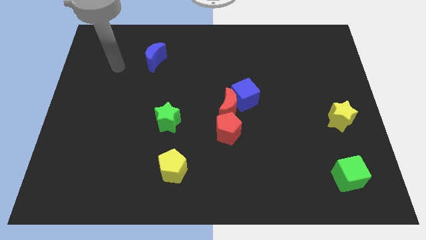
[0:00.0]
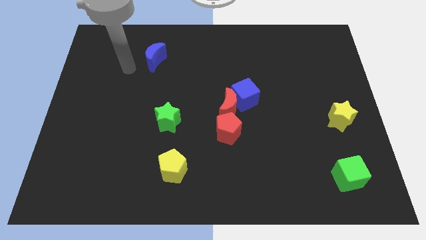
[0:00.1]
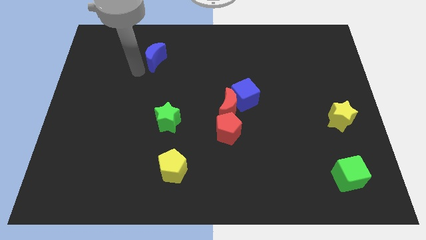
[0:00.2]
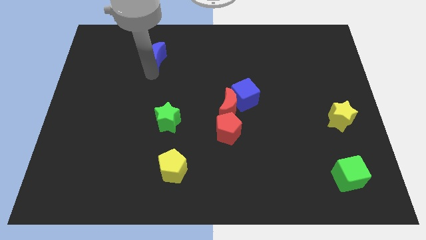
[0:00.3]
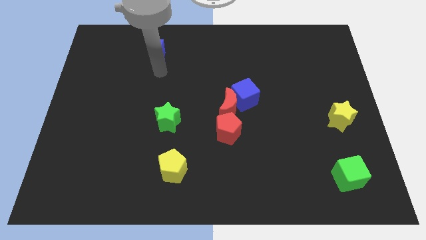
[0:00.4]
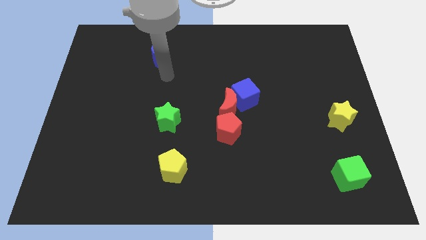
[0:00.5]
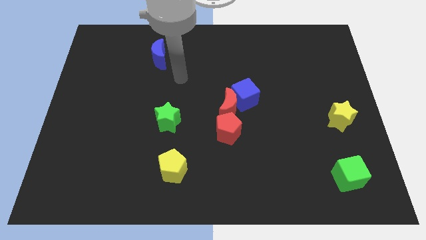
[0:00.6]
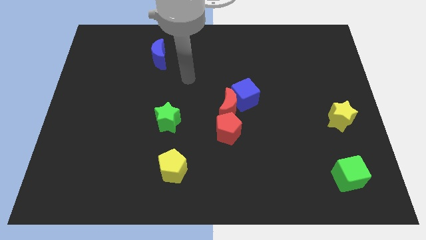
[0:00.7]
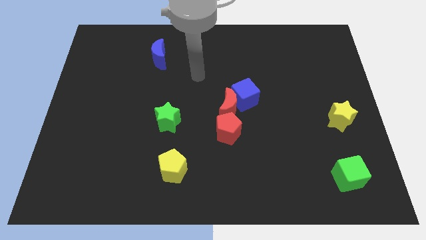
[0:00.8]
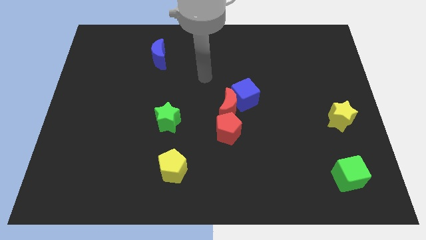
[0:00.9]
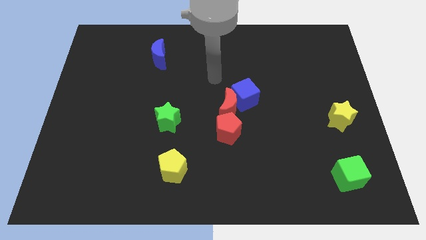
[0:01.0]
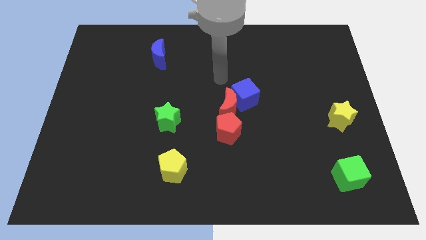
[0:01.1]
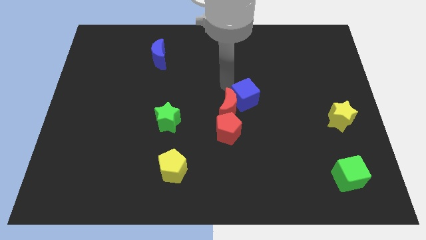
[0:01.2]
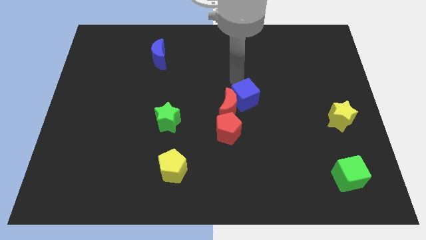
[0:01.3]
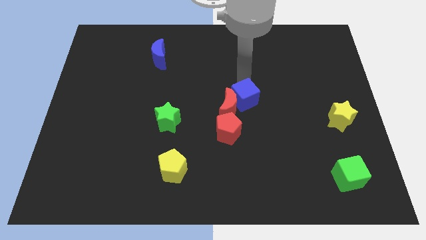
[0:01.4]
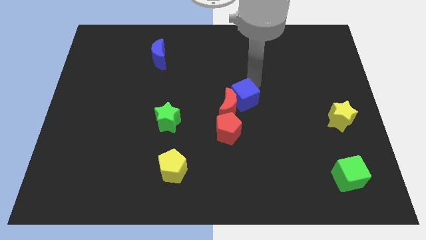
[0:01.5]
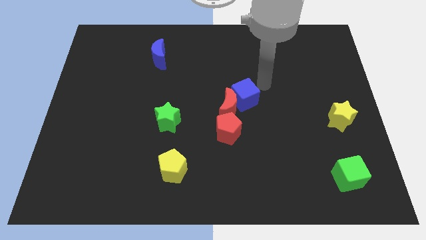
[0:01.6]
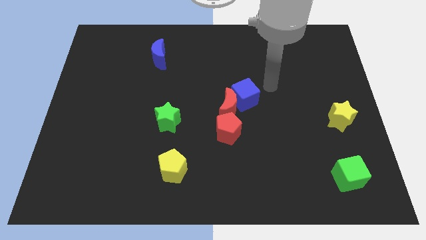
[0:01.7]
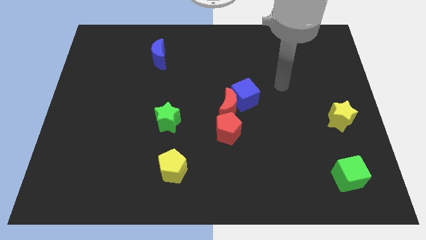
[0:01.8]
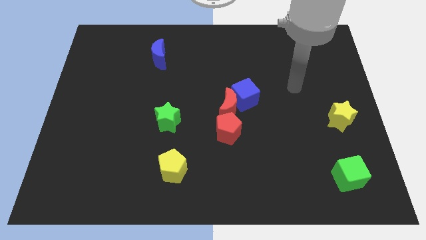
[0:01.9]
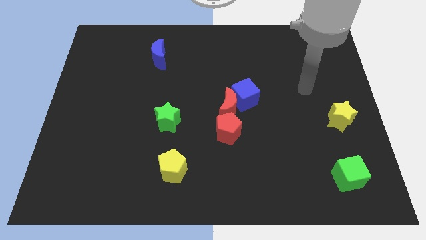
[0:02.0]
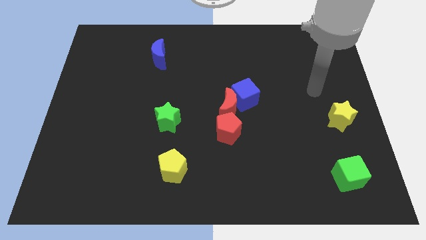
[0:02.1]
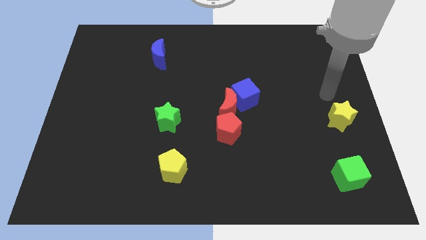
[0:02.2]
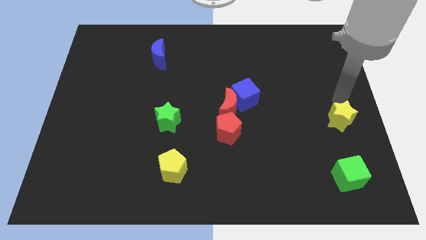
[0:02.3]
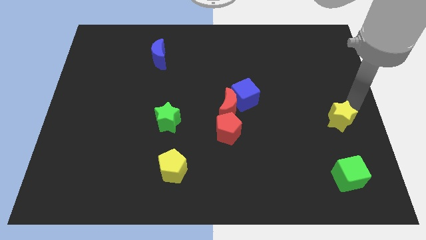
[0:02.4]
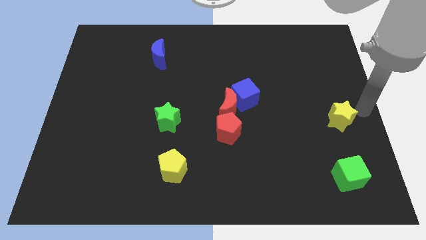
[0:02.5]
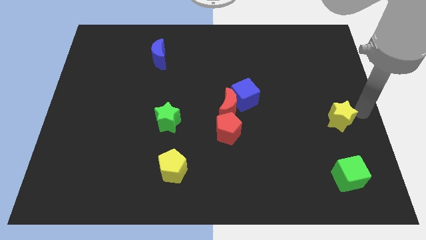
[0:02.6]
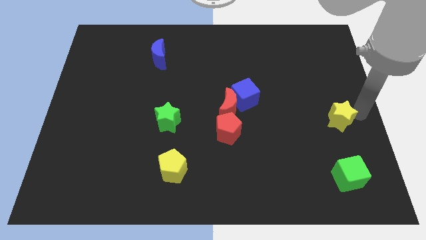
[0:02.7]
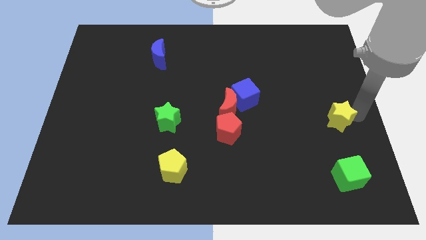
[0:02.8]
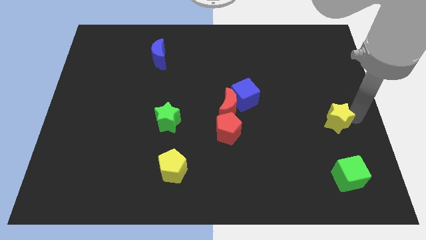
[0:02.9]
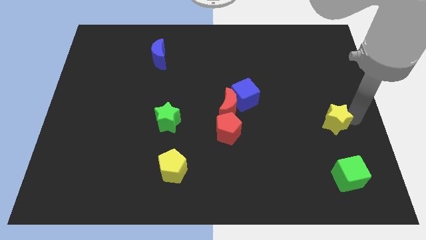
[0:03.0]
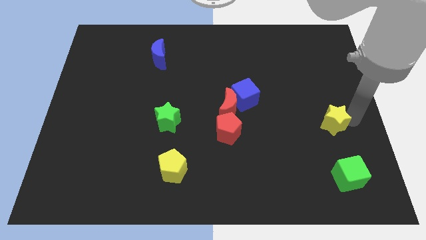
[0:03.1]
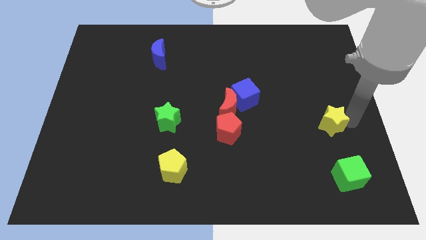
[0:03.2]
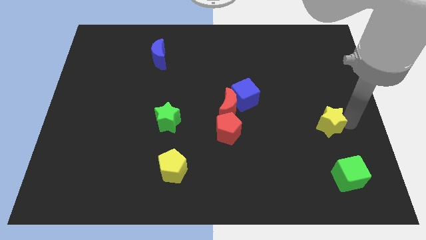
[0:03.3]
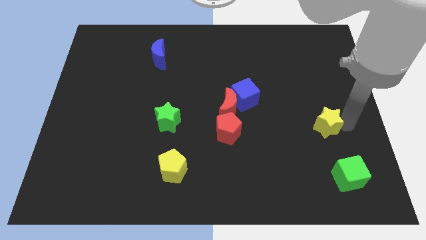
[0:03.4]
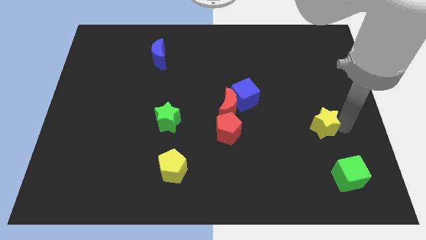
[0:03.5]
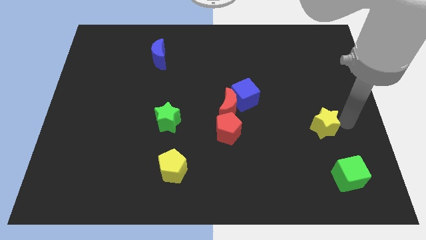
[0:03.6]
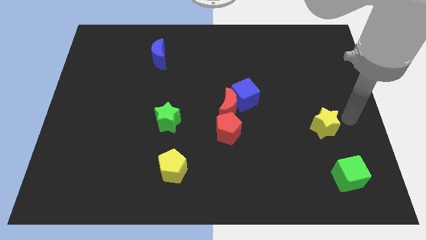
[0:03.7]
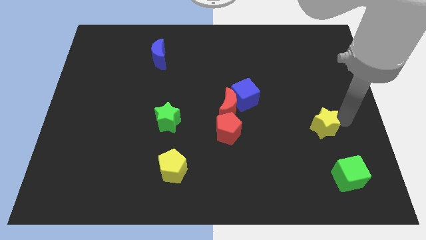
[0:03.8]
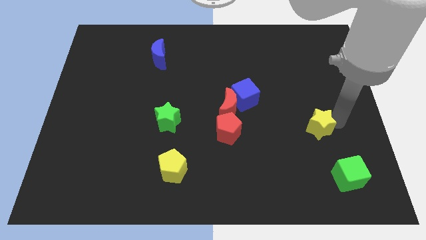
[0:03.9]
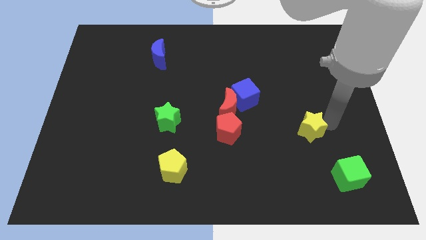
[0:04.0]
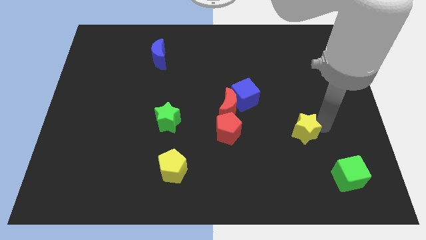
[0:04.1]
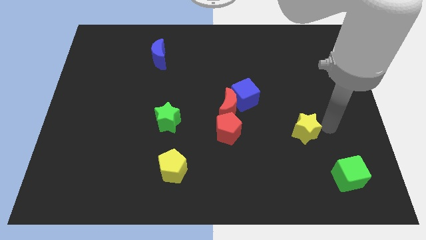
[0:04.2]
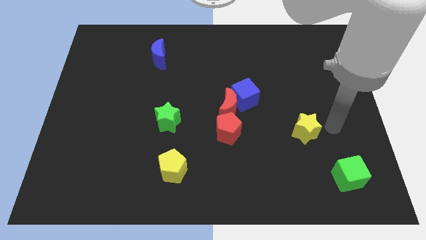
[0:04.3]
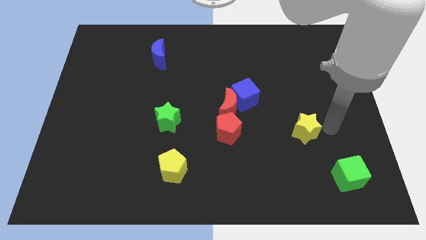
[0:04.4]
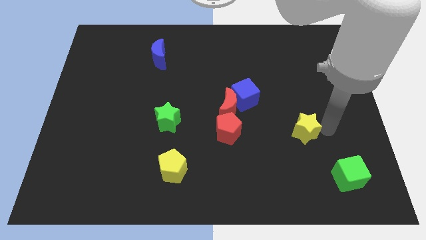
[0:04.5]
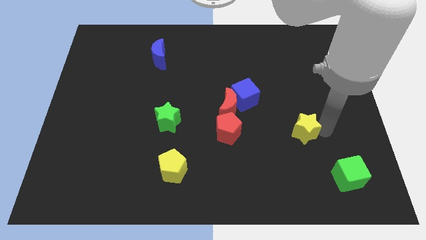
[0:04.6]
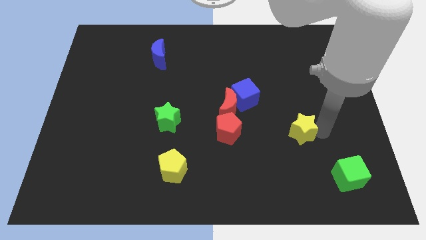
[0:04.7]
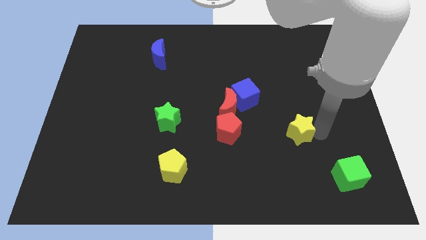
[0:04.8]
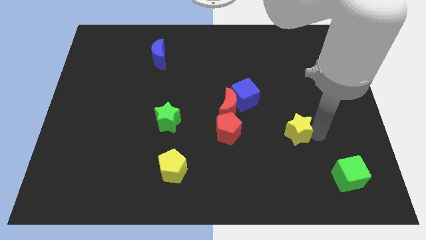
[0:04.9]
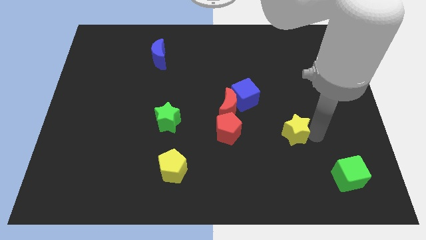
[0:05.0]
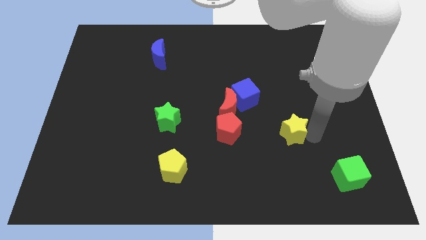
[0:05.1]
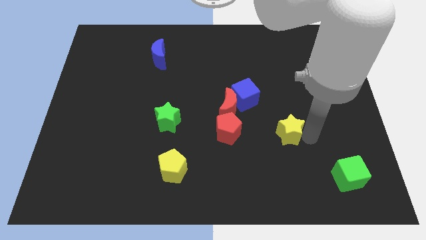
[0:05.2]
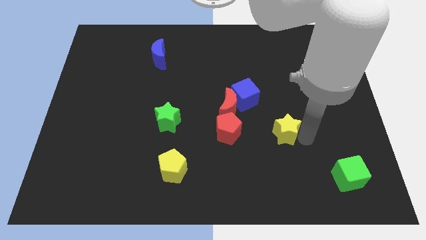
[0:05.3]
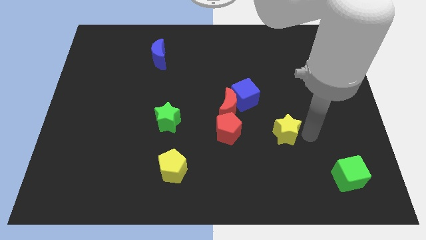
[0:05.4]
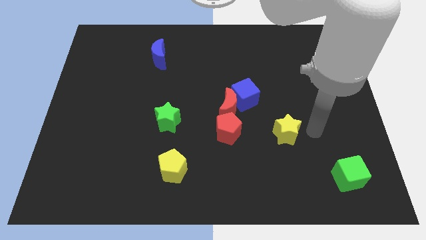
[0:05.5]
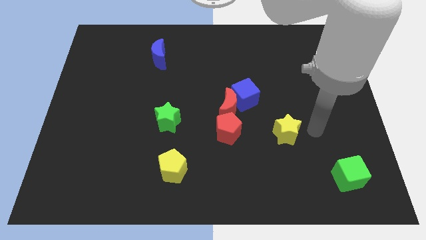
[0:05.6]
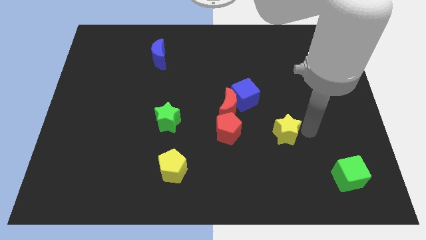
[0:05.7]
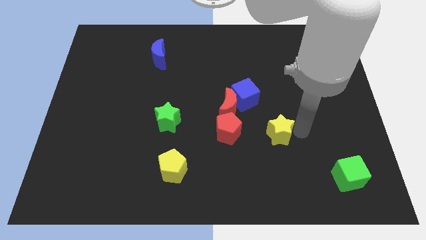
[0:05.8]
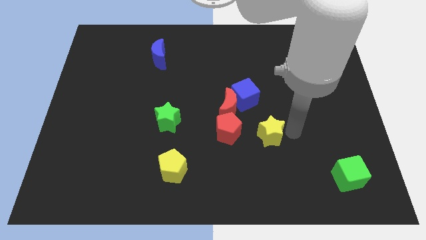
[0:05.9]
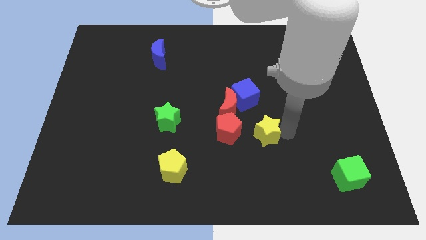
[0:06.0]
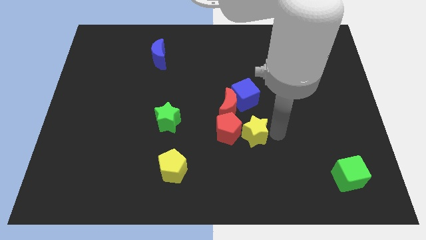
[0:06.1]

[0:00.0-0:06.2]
push the yellow star towards the red pentagon
